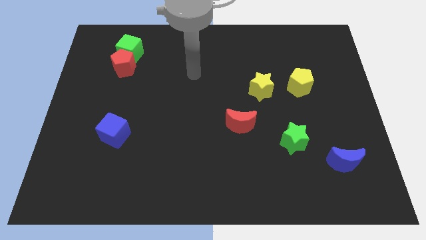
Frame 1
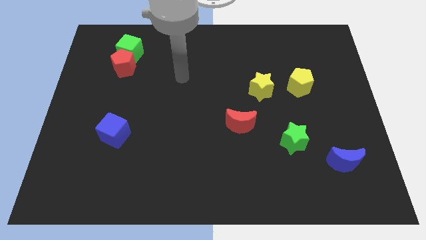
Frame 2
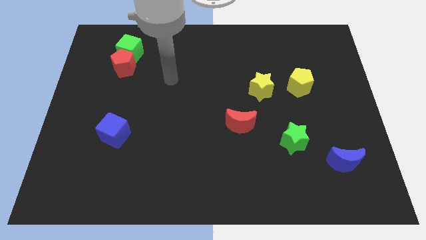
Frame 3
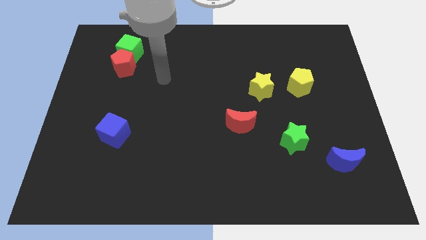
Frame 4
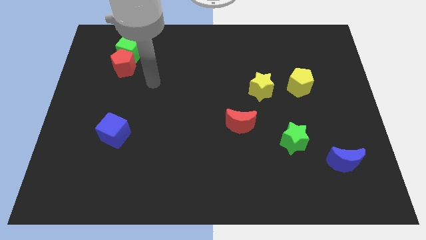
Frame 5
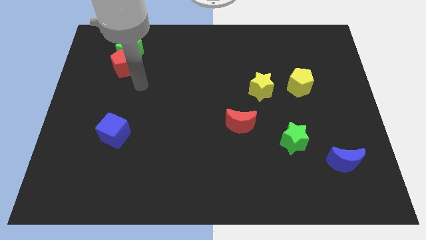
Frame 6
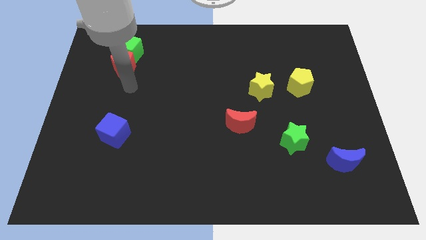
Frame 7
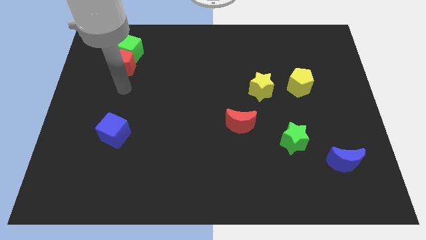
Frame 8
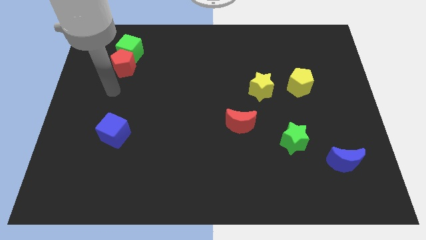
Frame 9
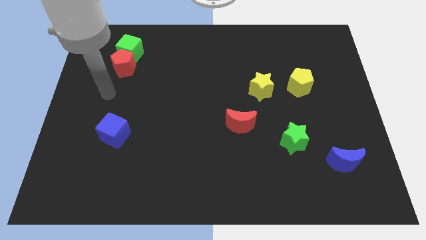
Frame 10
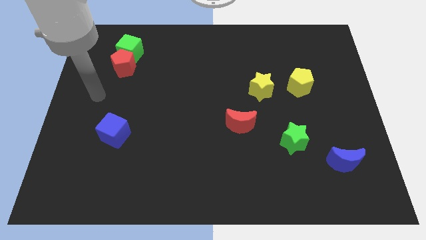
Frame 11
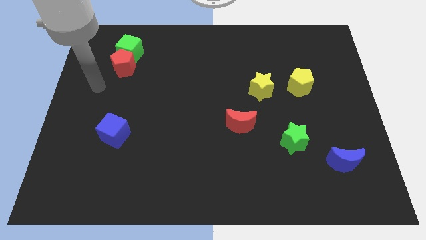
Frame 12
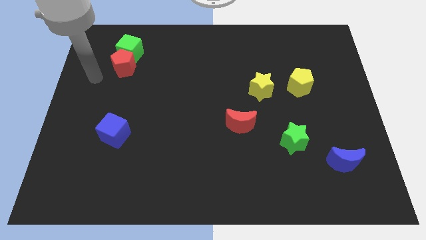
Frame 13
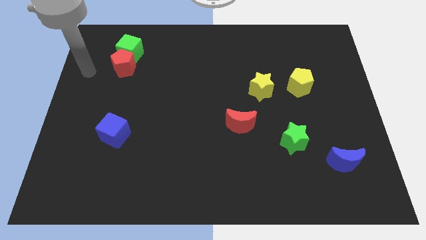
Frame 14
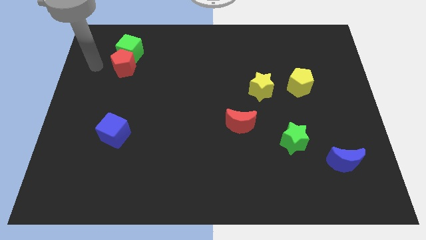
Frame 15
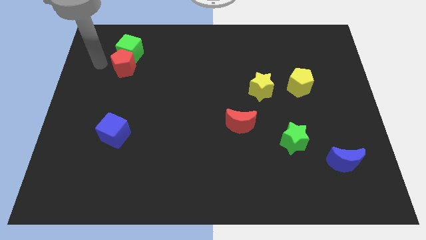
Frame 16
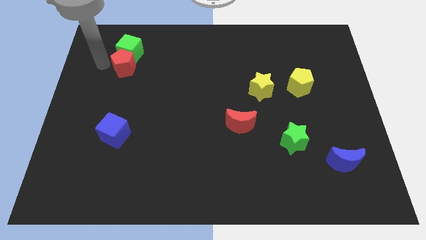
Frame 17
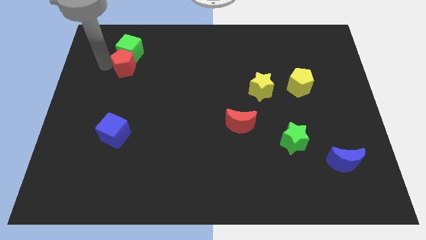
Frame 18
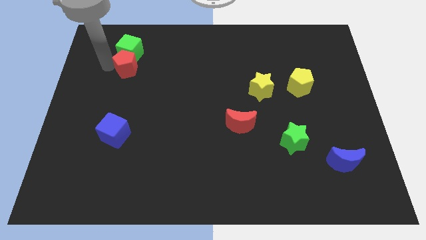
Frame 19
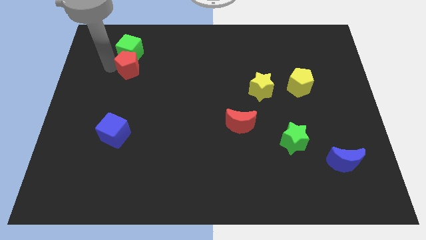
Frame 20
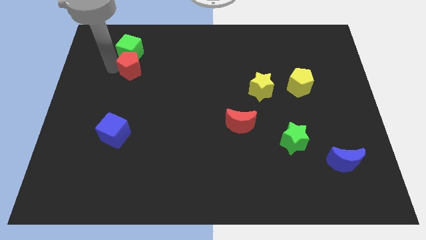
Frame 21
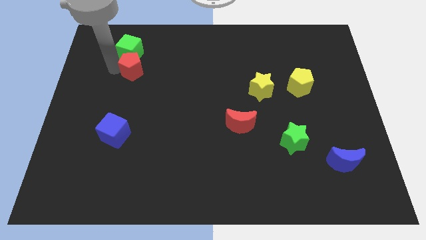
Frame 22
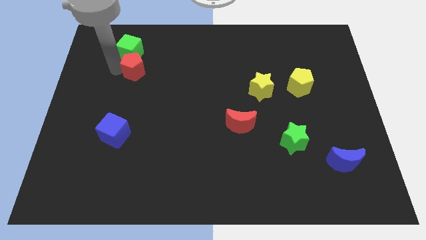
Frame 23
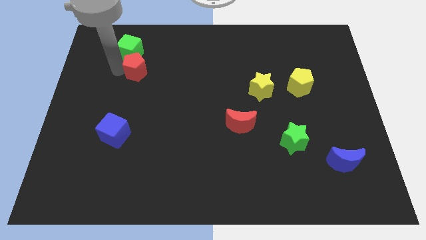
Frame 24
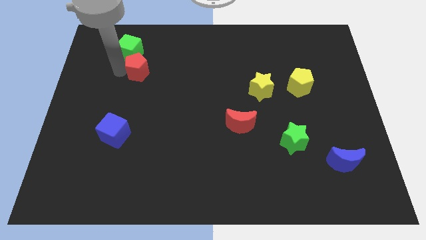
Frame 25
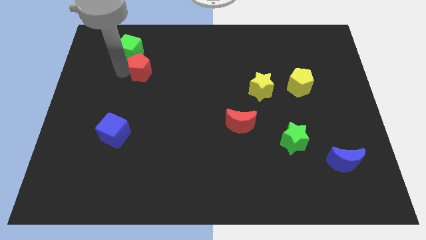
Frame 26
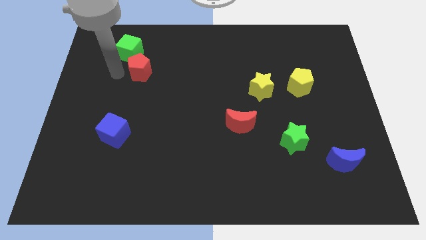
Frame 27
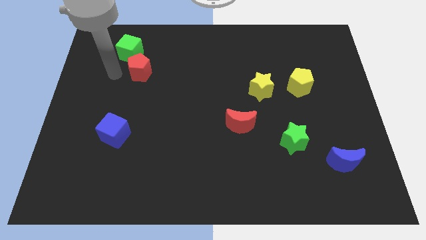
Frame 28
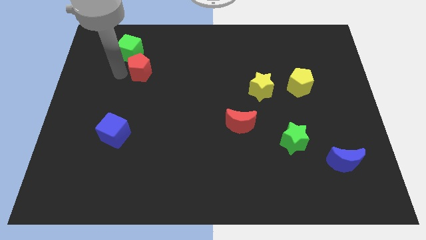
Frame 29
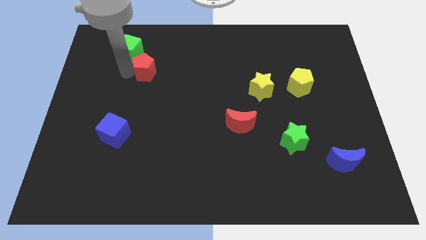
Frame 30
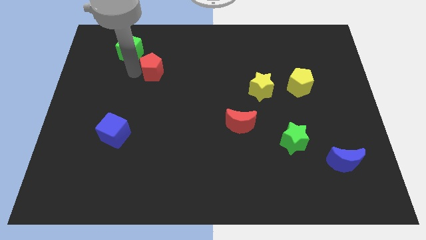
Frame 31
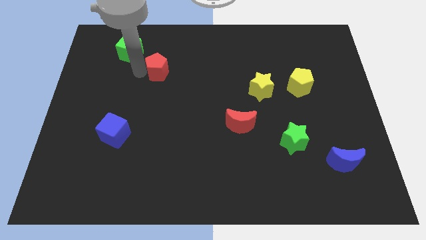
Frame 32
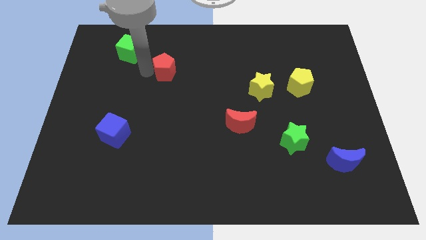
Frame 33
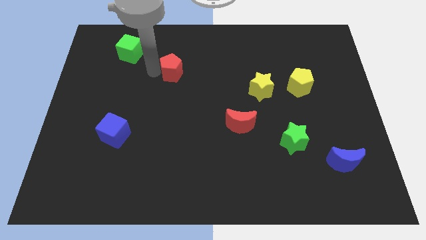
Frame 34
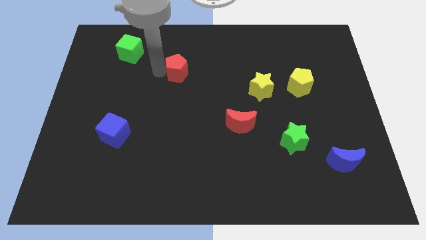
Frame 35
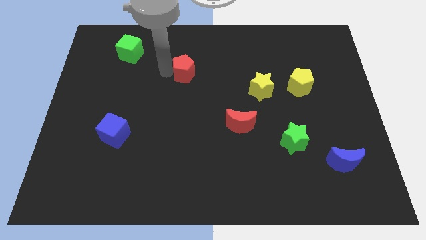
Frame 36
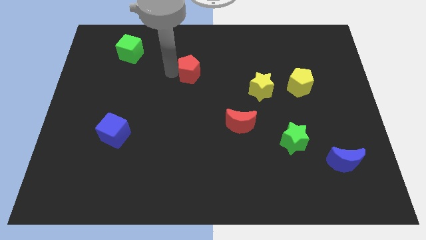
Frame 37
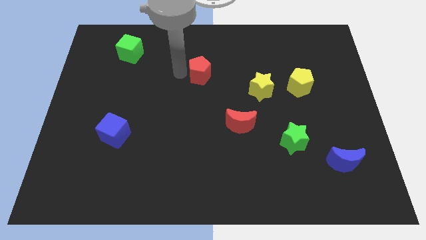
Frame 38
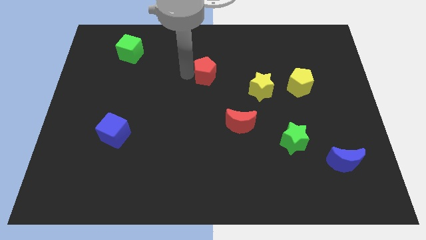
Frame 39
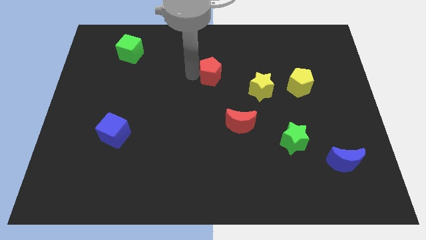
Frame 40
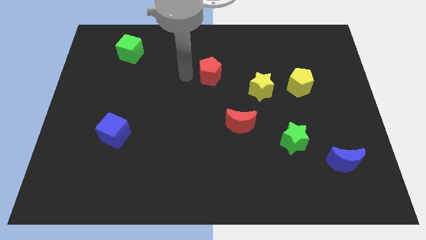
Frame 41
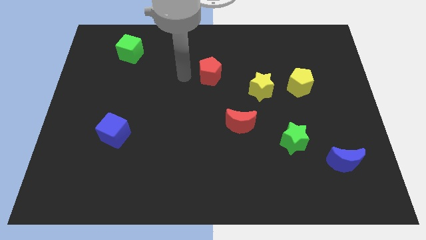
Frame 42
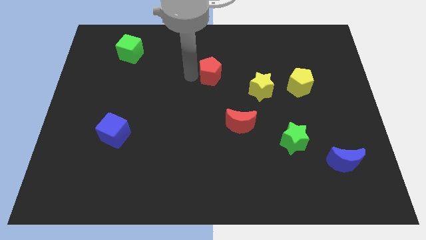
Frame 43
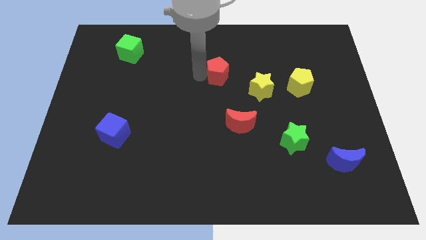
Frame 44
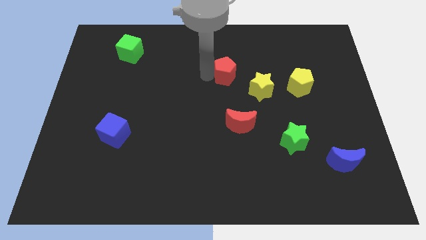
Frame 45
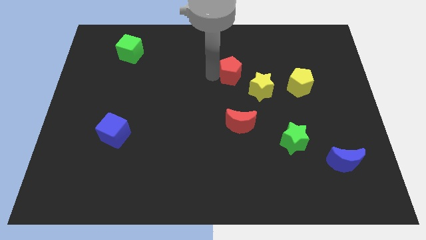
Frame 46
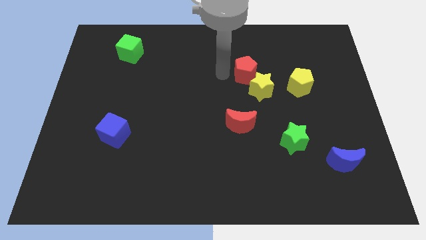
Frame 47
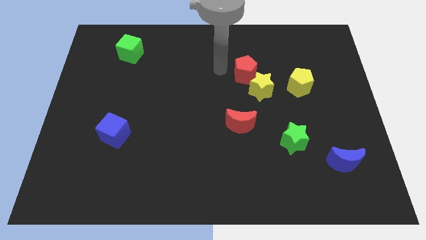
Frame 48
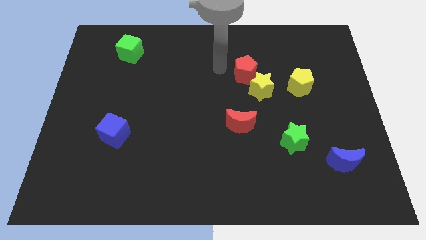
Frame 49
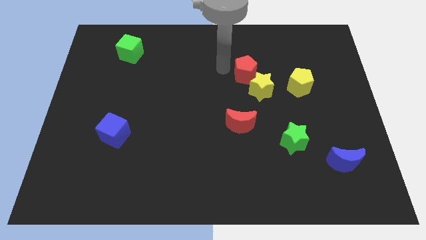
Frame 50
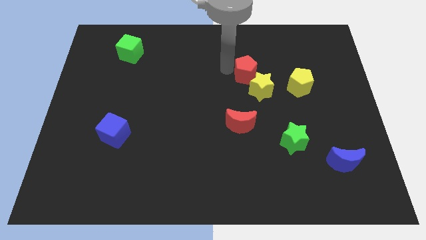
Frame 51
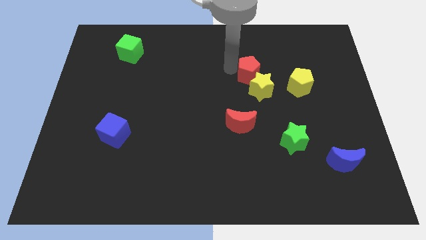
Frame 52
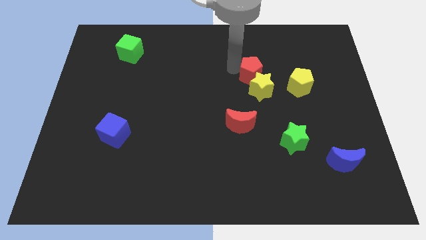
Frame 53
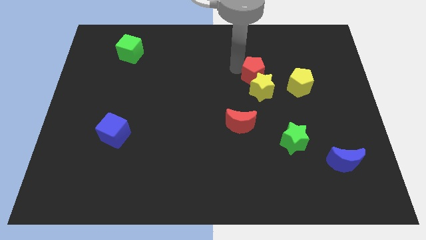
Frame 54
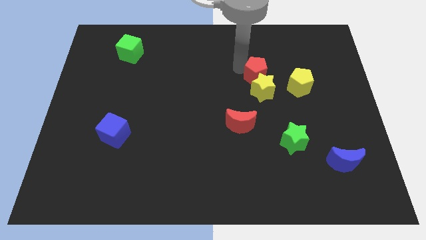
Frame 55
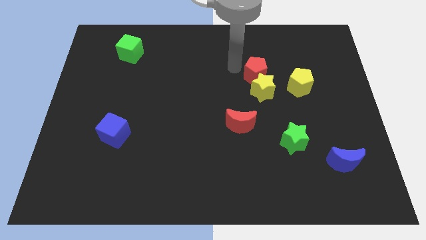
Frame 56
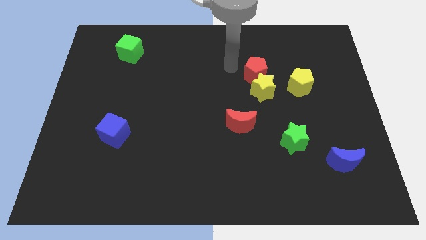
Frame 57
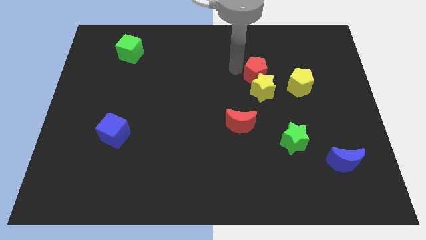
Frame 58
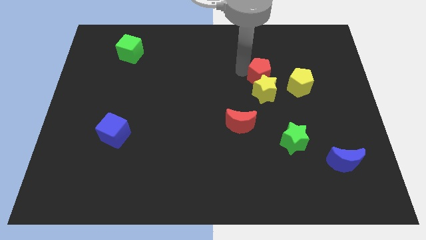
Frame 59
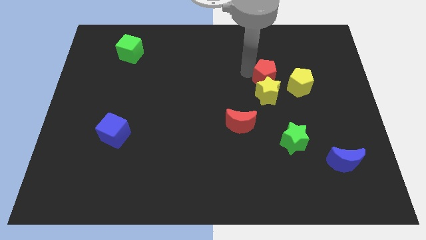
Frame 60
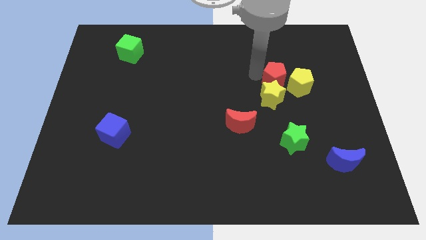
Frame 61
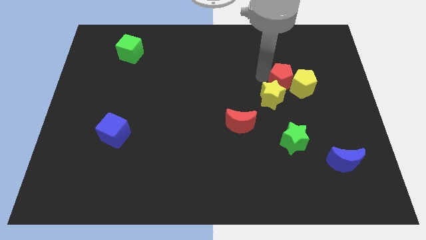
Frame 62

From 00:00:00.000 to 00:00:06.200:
put the red pentagon close to the yellow pentagon

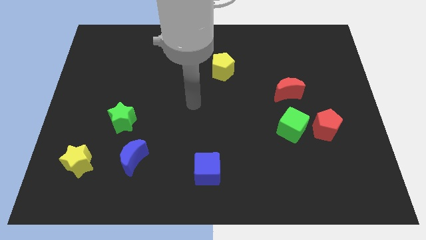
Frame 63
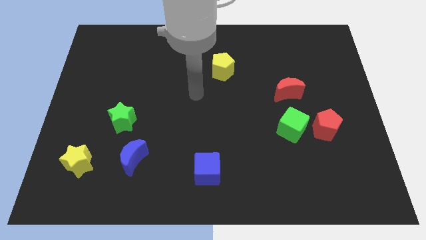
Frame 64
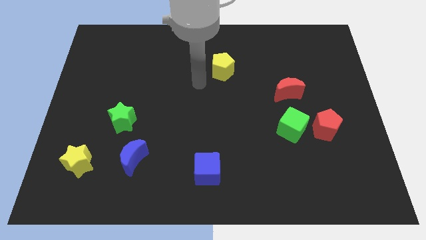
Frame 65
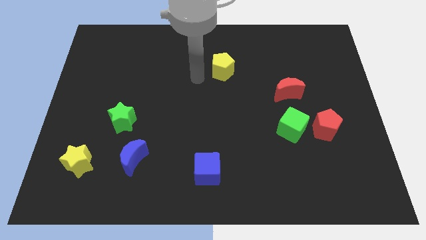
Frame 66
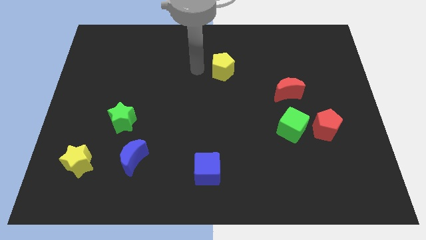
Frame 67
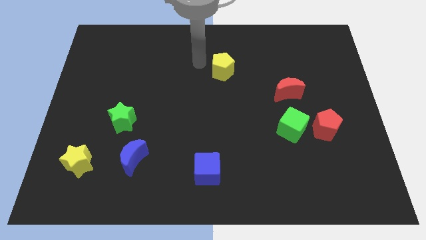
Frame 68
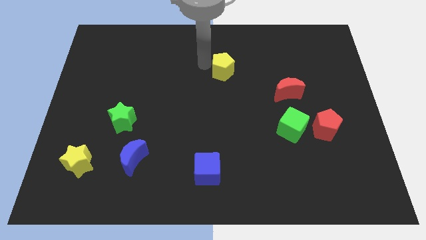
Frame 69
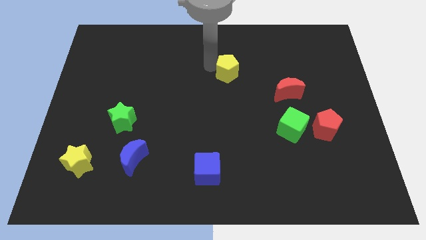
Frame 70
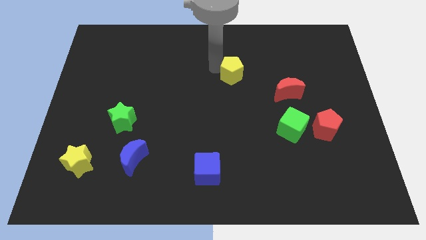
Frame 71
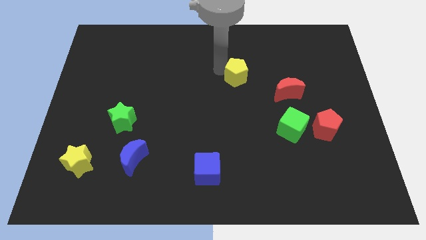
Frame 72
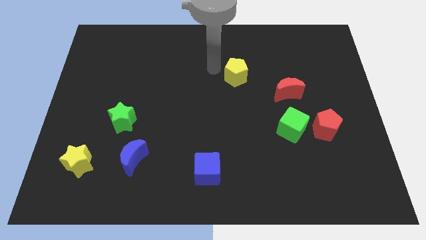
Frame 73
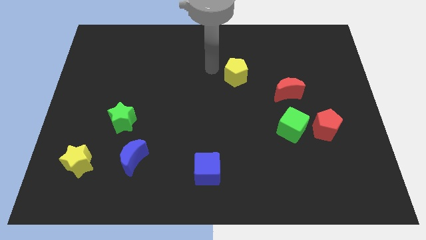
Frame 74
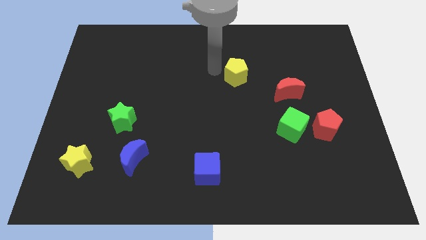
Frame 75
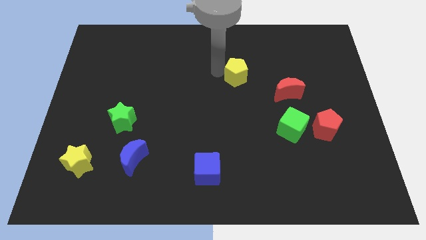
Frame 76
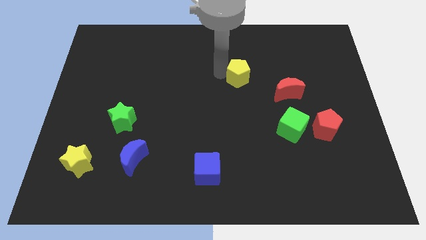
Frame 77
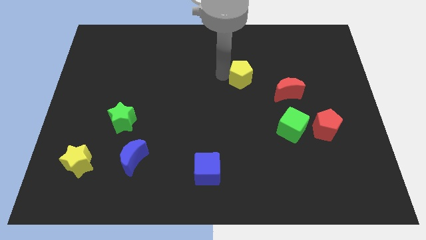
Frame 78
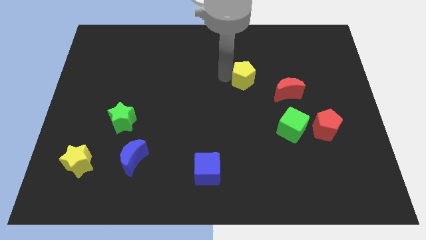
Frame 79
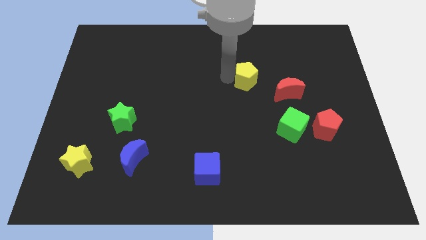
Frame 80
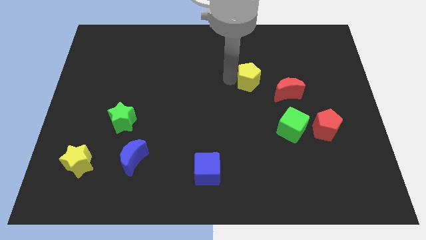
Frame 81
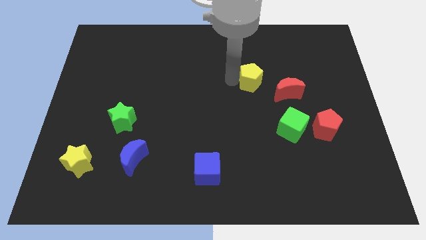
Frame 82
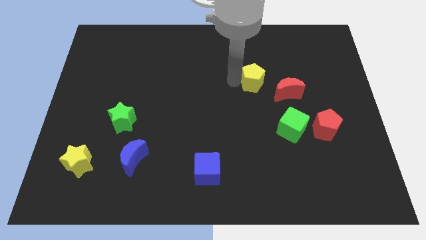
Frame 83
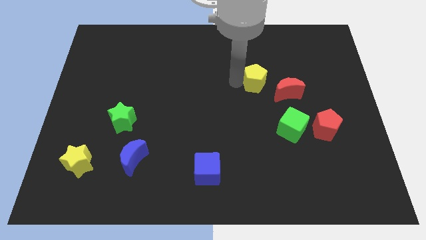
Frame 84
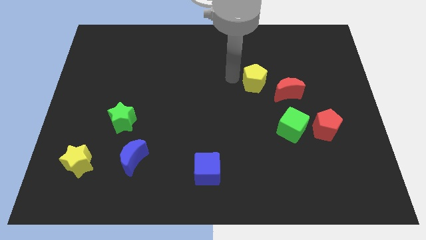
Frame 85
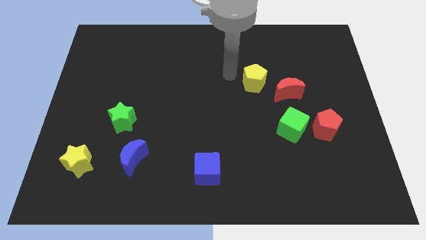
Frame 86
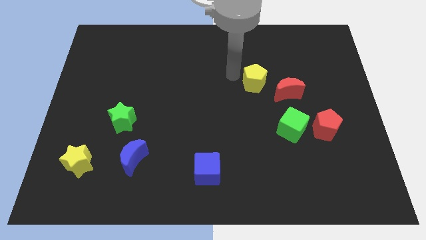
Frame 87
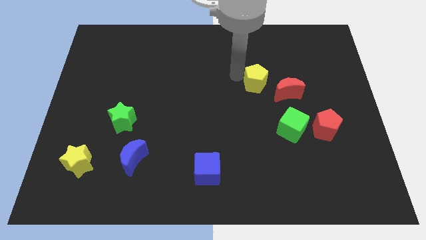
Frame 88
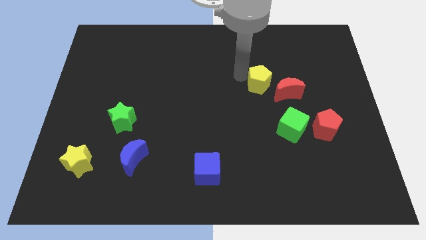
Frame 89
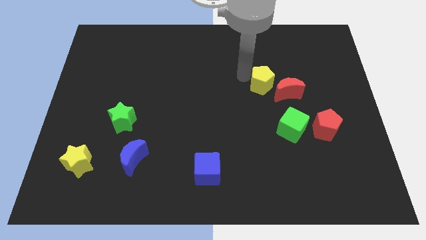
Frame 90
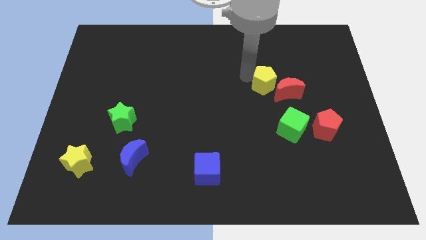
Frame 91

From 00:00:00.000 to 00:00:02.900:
move the yellow pentagon next to the red moon
